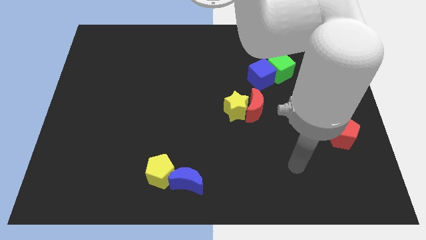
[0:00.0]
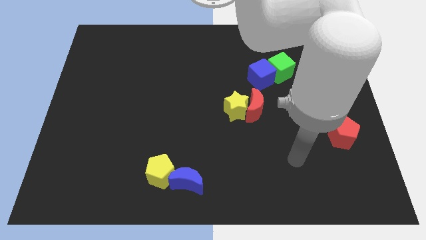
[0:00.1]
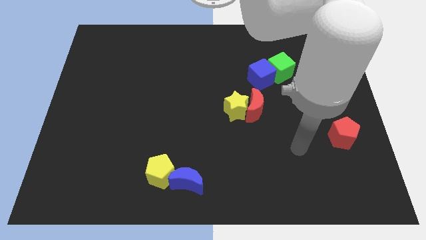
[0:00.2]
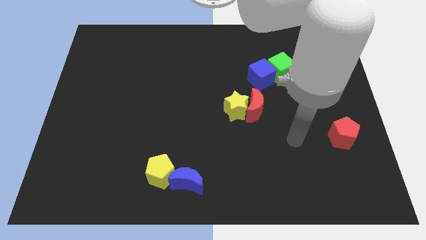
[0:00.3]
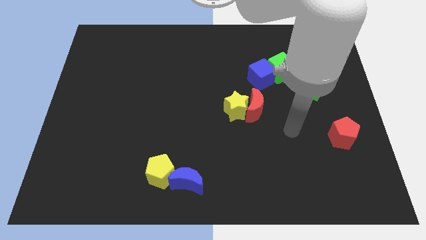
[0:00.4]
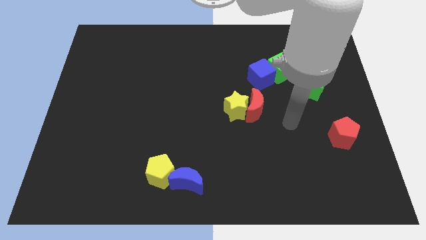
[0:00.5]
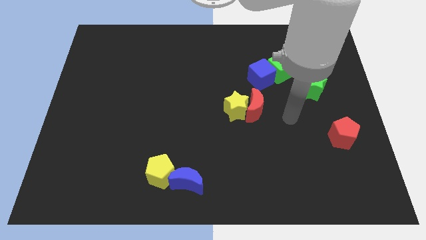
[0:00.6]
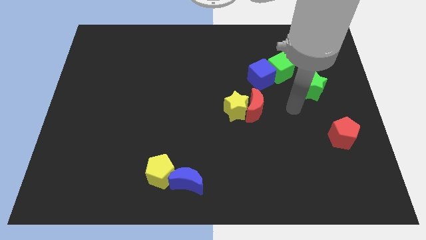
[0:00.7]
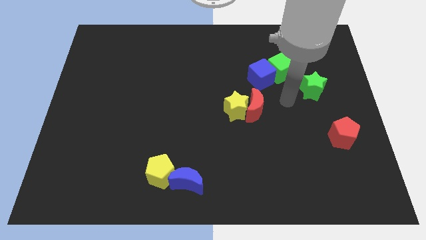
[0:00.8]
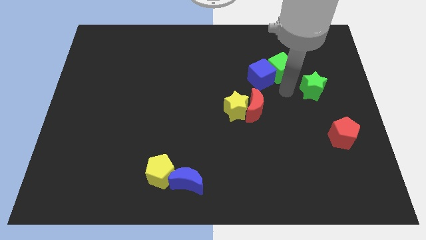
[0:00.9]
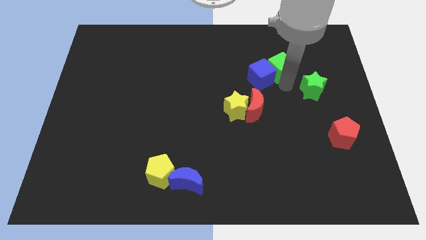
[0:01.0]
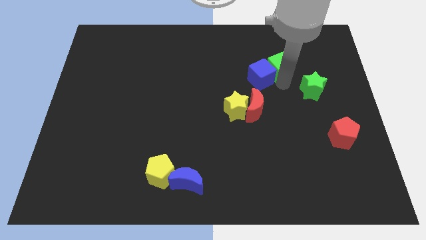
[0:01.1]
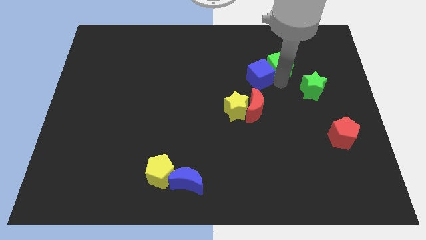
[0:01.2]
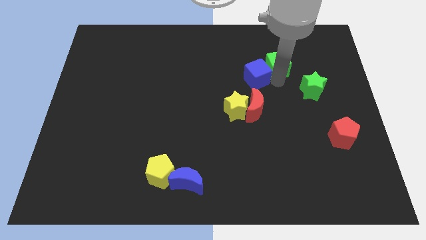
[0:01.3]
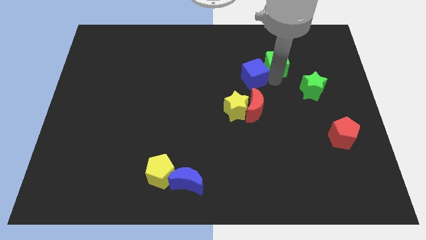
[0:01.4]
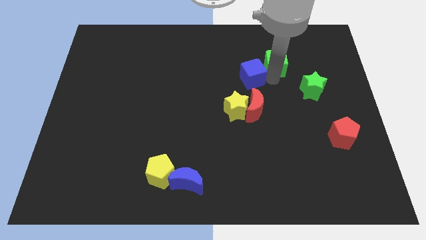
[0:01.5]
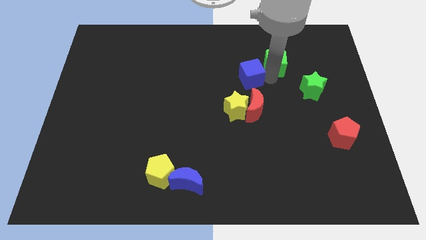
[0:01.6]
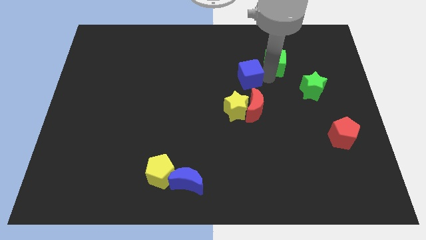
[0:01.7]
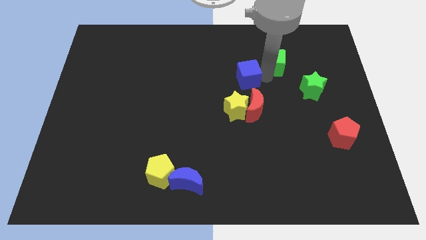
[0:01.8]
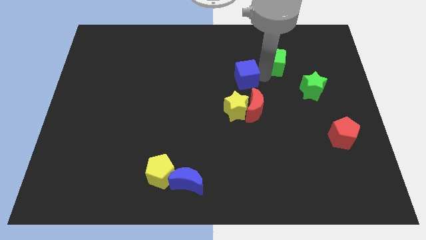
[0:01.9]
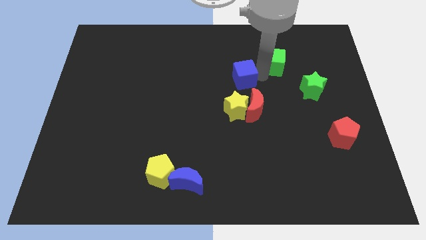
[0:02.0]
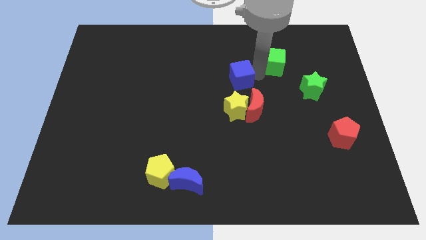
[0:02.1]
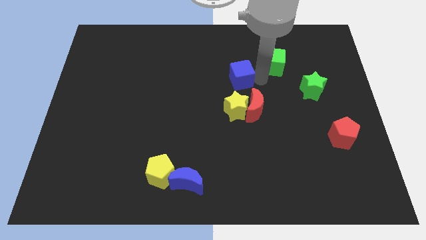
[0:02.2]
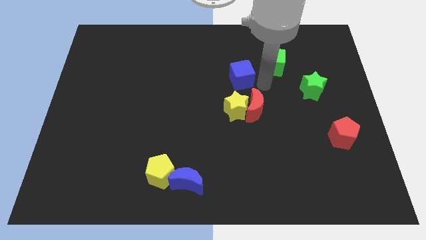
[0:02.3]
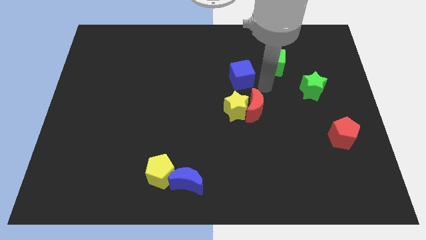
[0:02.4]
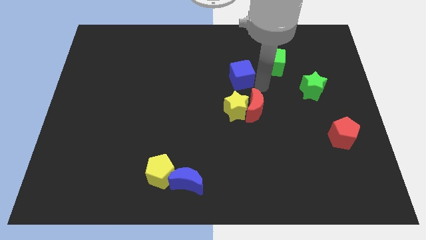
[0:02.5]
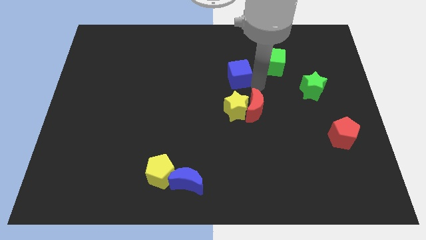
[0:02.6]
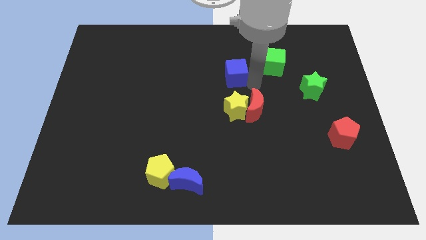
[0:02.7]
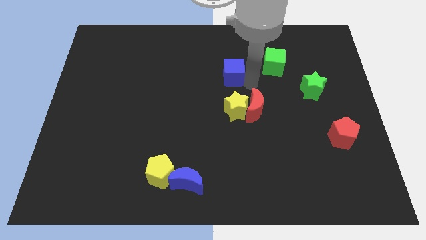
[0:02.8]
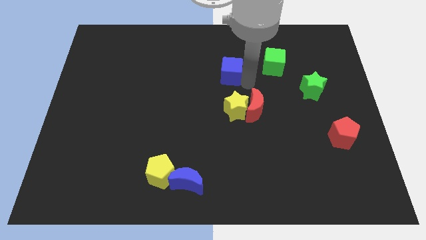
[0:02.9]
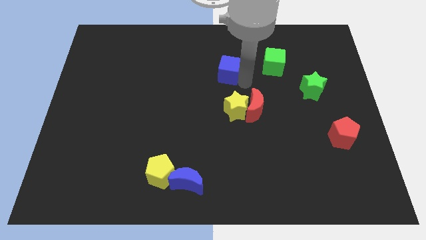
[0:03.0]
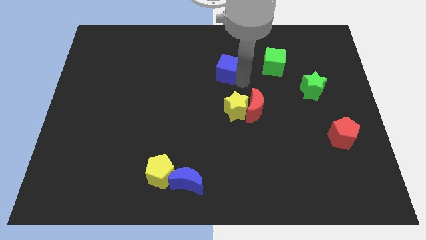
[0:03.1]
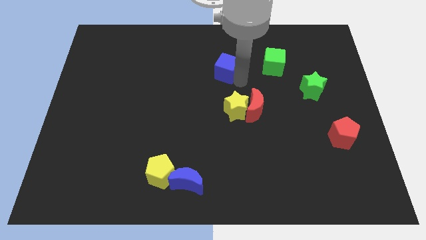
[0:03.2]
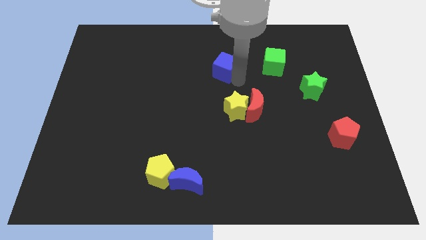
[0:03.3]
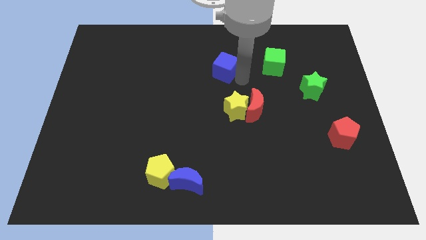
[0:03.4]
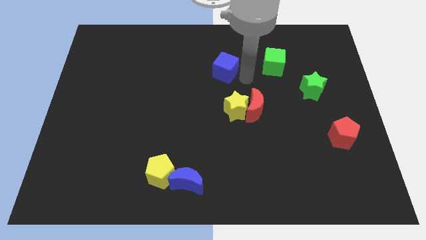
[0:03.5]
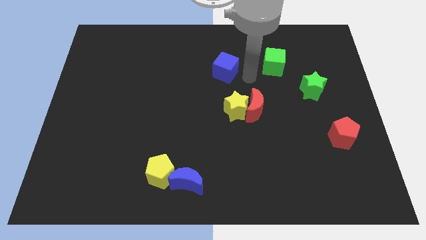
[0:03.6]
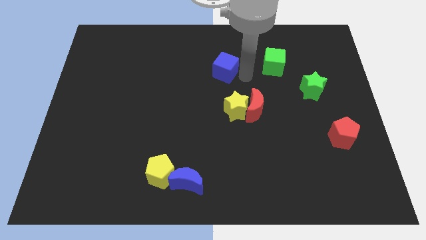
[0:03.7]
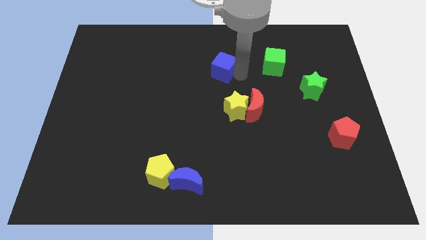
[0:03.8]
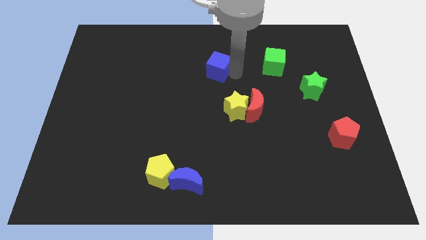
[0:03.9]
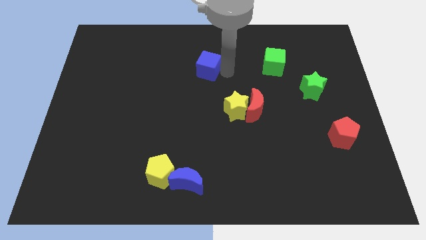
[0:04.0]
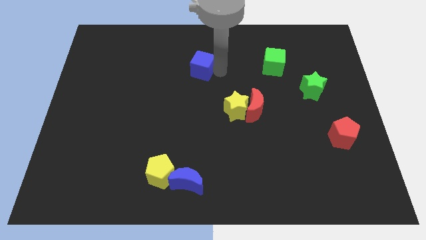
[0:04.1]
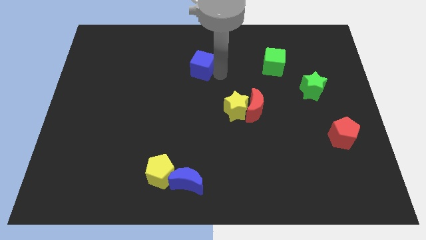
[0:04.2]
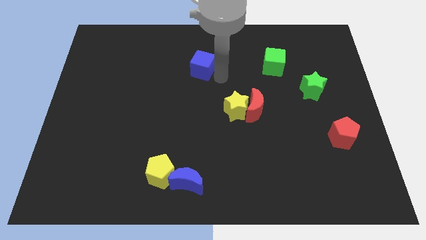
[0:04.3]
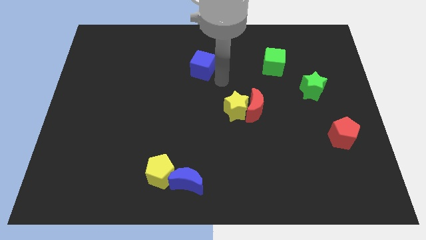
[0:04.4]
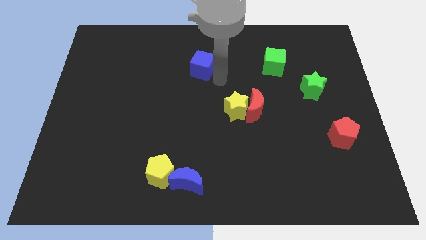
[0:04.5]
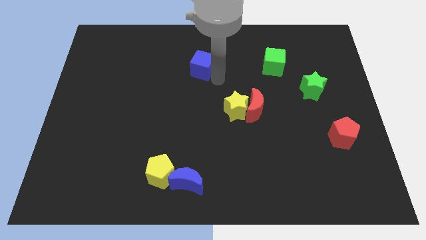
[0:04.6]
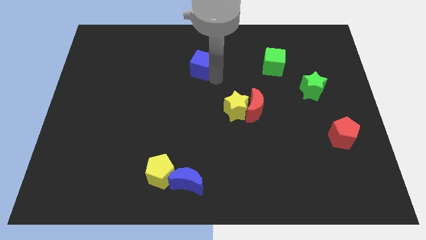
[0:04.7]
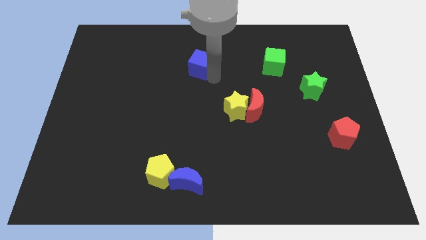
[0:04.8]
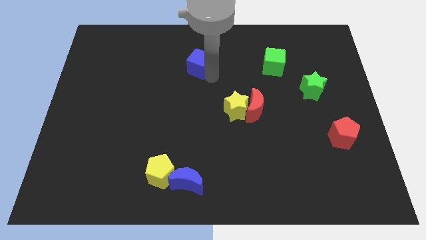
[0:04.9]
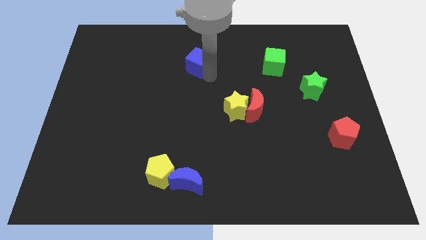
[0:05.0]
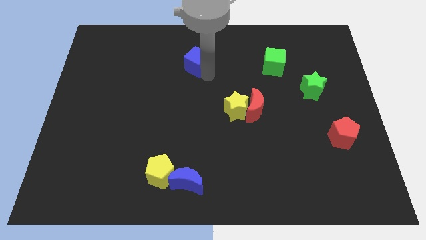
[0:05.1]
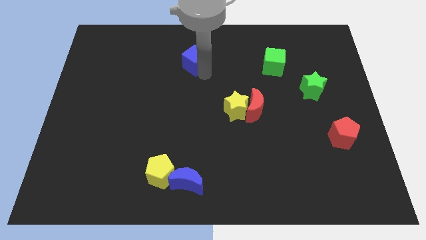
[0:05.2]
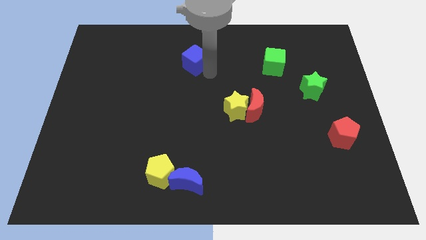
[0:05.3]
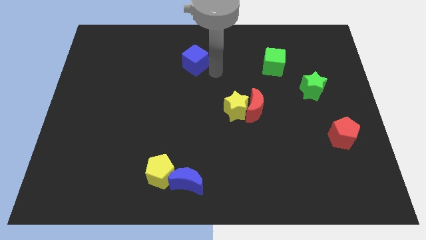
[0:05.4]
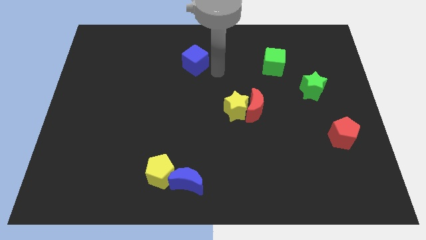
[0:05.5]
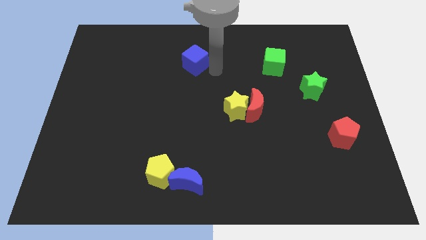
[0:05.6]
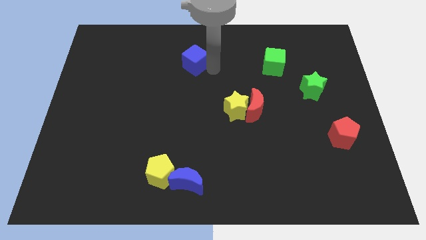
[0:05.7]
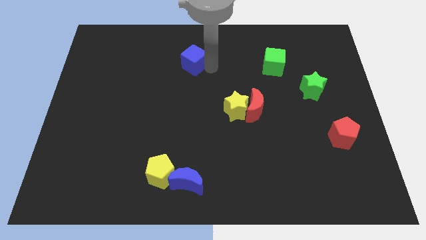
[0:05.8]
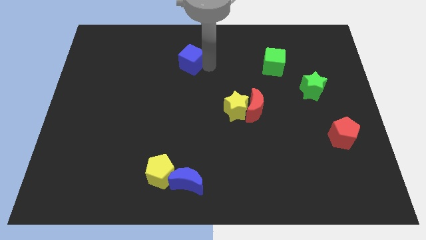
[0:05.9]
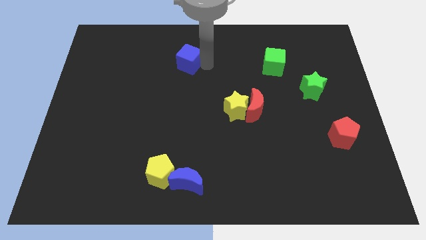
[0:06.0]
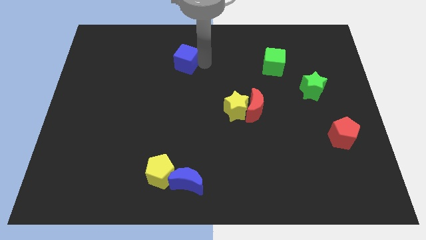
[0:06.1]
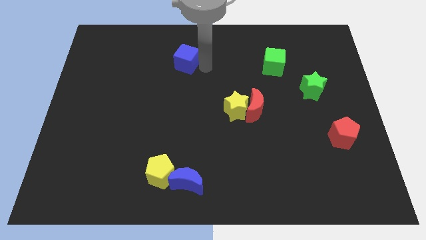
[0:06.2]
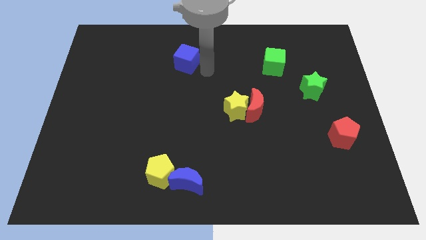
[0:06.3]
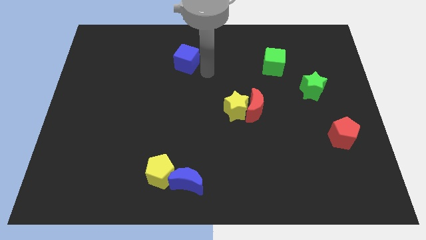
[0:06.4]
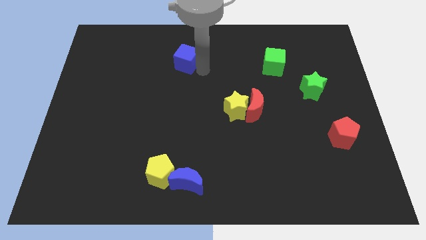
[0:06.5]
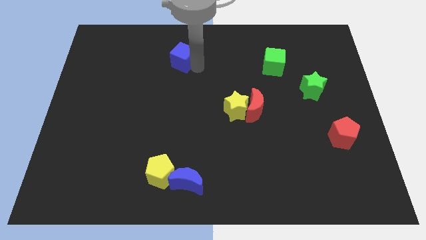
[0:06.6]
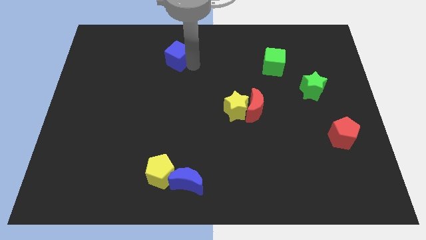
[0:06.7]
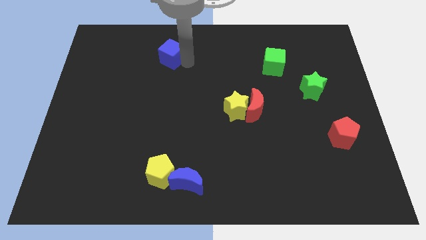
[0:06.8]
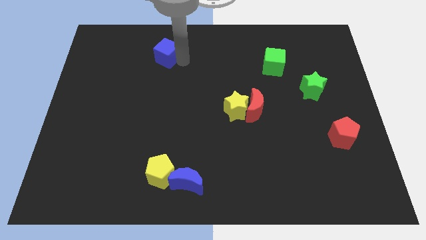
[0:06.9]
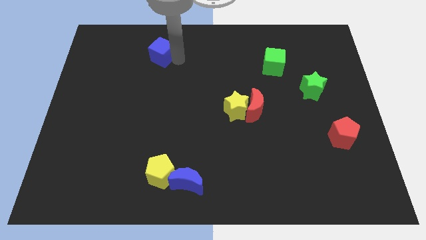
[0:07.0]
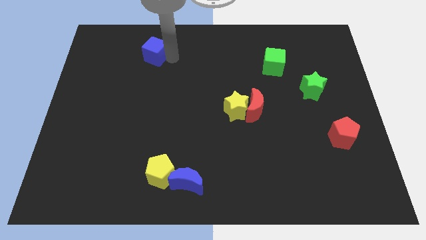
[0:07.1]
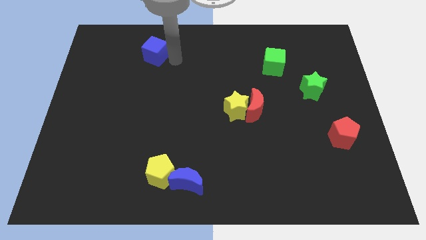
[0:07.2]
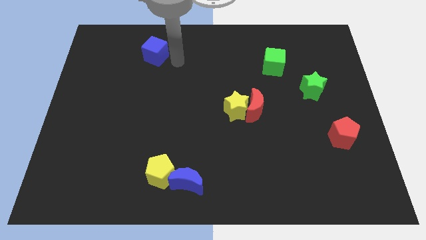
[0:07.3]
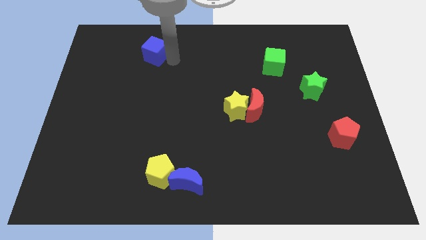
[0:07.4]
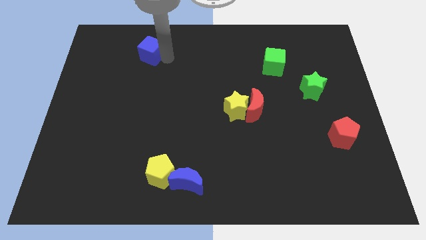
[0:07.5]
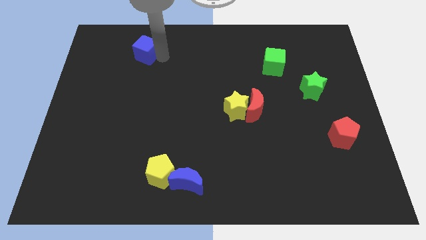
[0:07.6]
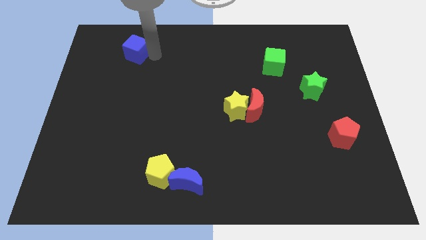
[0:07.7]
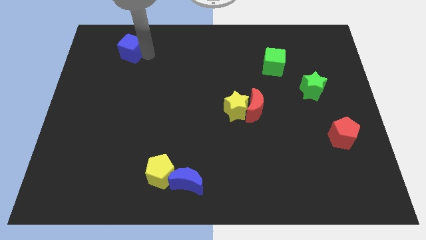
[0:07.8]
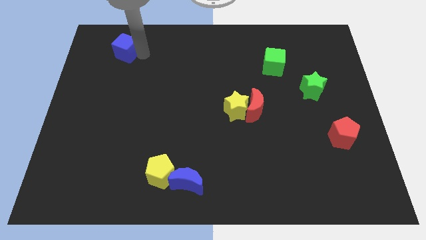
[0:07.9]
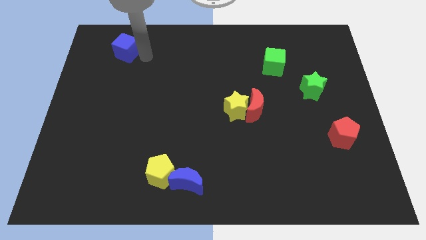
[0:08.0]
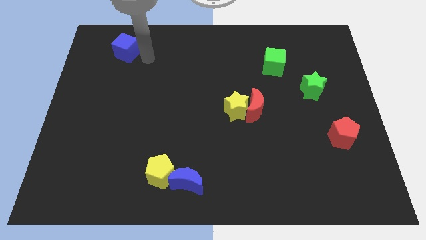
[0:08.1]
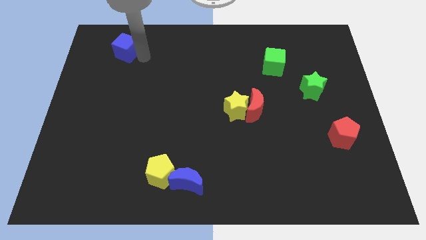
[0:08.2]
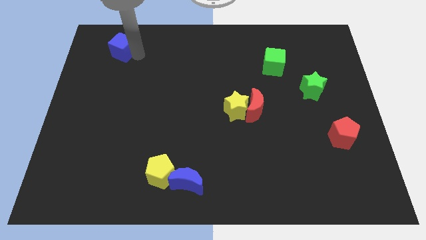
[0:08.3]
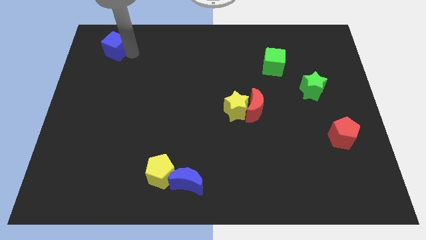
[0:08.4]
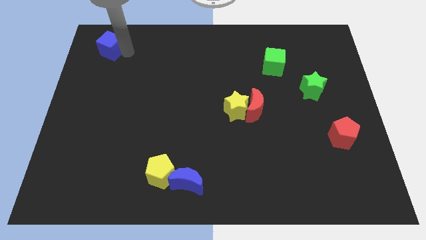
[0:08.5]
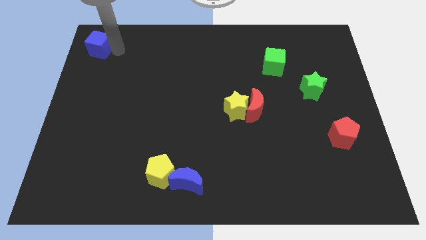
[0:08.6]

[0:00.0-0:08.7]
put the blue cube to the top left corner
